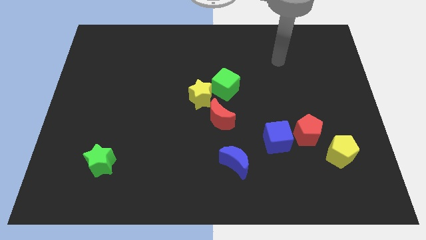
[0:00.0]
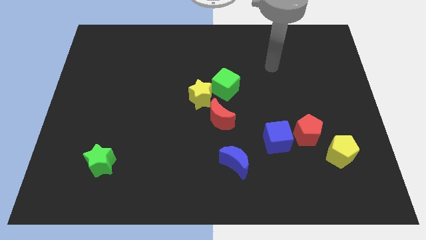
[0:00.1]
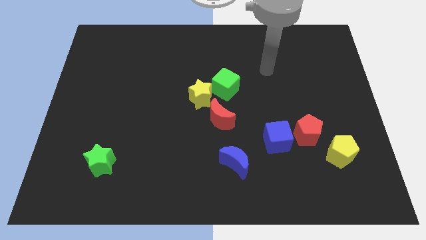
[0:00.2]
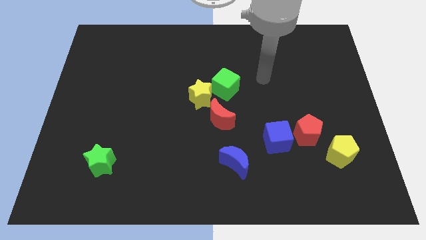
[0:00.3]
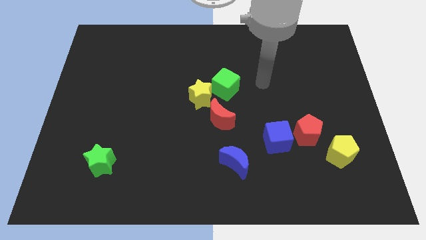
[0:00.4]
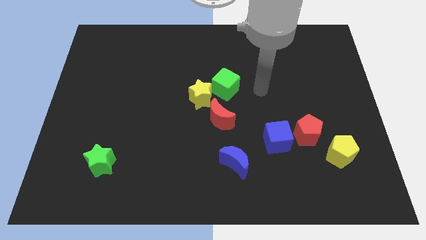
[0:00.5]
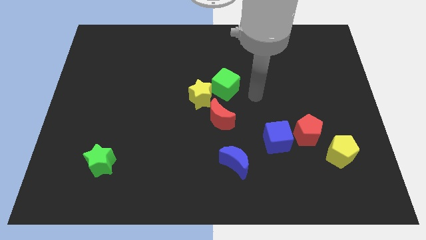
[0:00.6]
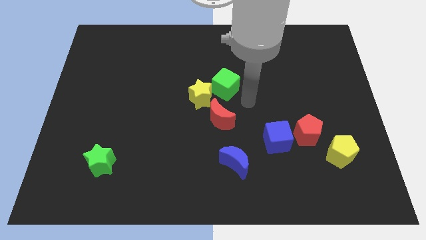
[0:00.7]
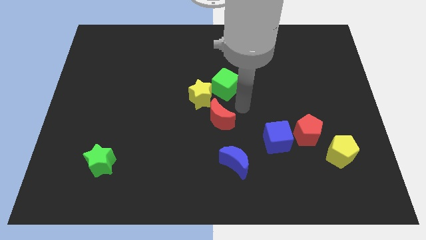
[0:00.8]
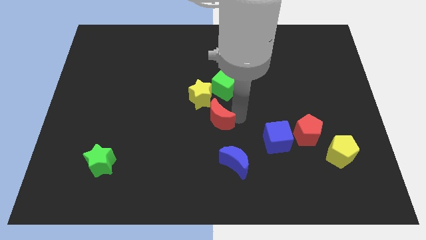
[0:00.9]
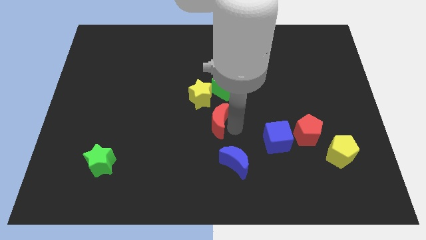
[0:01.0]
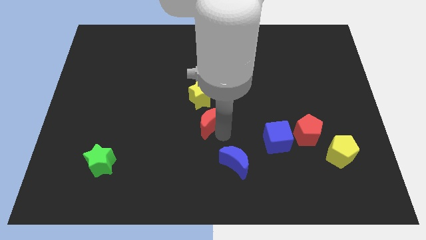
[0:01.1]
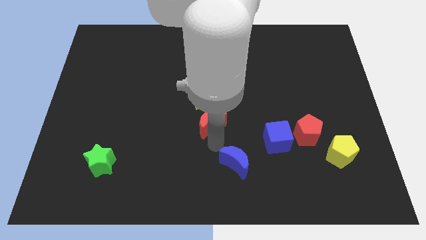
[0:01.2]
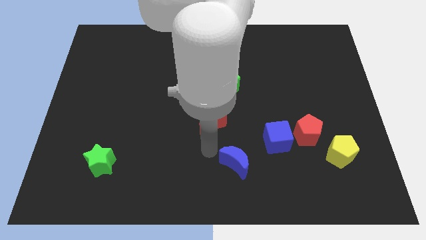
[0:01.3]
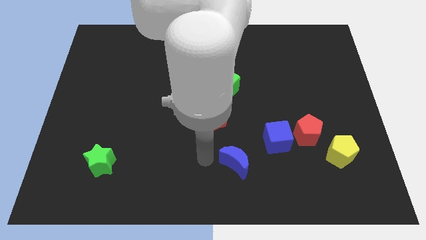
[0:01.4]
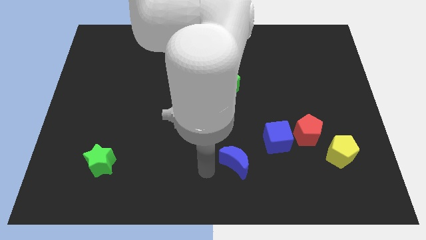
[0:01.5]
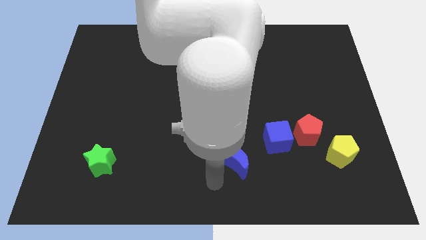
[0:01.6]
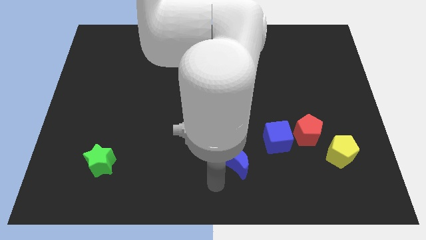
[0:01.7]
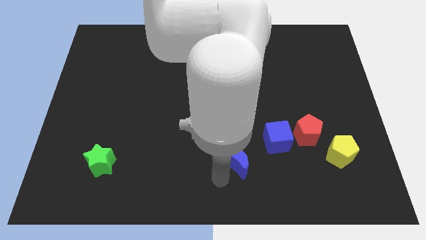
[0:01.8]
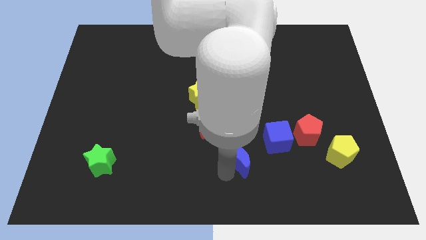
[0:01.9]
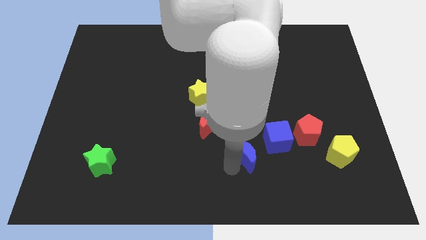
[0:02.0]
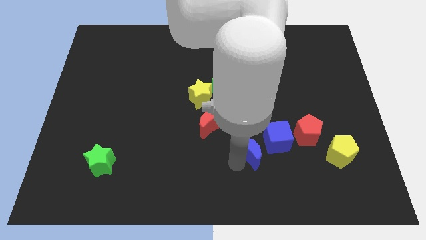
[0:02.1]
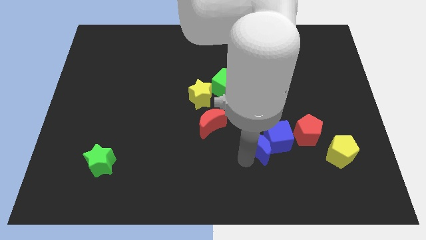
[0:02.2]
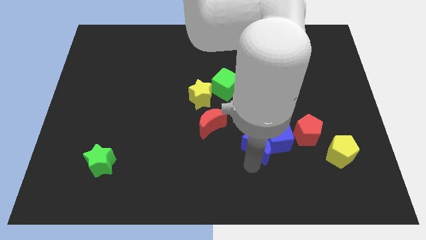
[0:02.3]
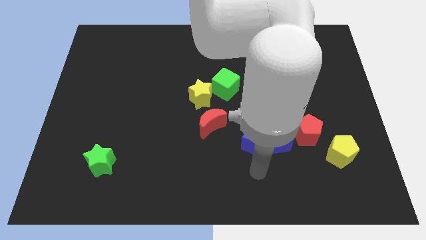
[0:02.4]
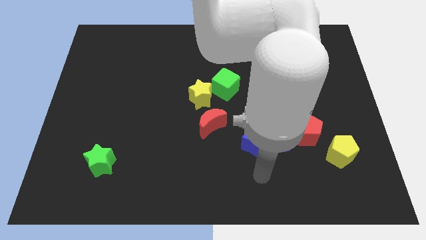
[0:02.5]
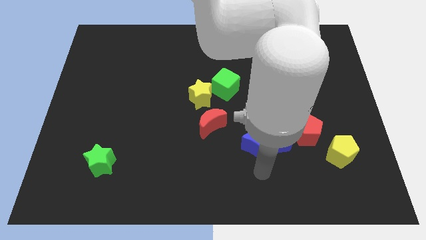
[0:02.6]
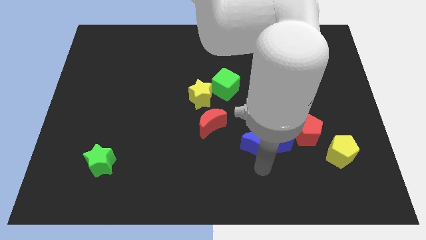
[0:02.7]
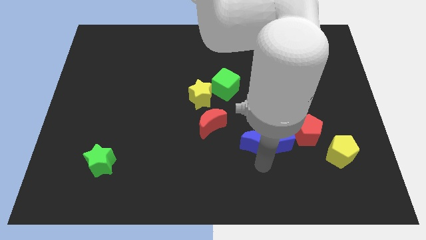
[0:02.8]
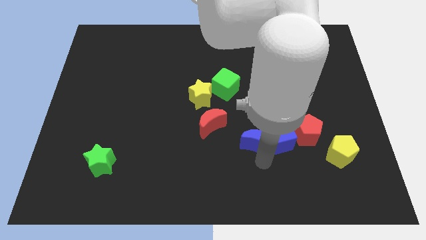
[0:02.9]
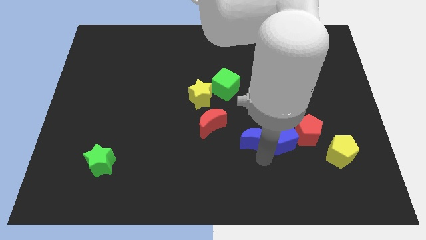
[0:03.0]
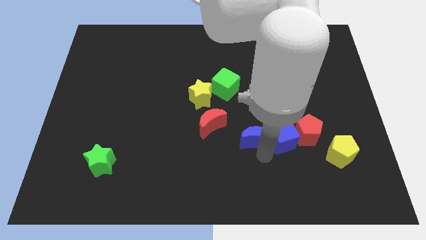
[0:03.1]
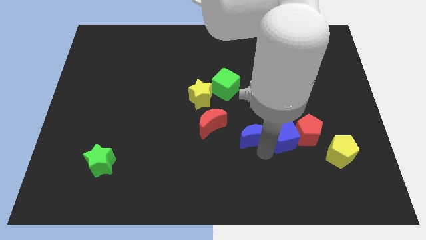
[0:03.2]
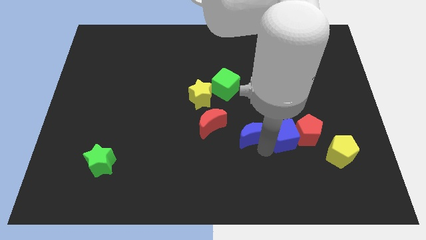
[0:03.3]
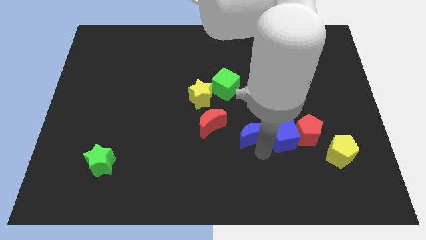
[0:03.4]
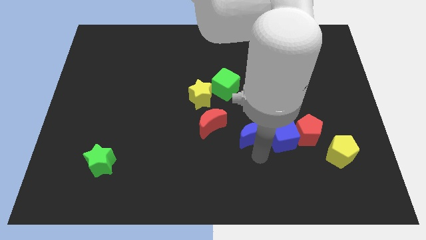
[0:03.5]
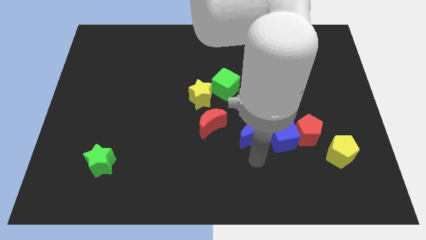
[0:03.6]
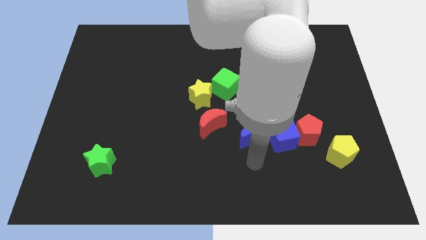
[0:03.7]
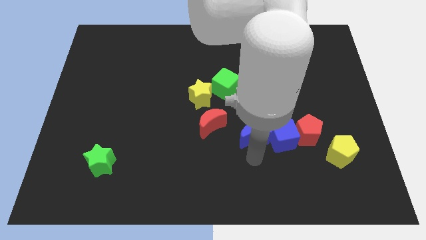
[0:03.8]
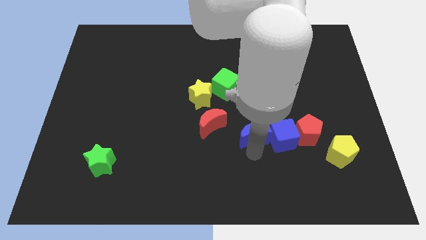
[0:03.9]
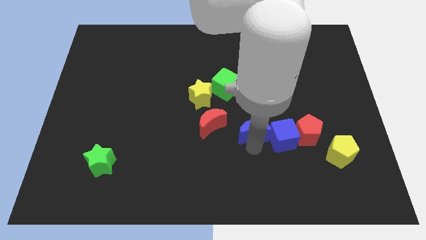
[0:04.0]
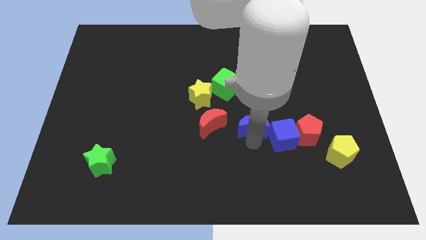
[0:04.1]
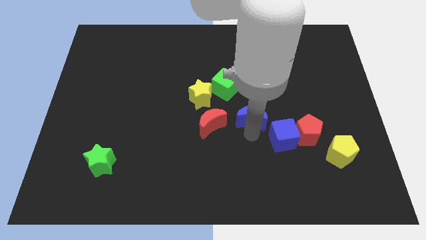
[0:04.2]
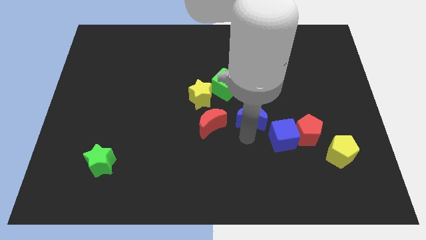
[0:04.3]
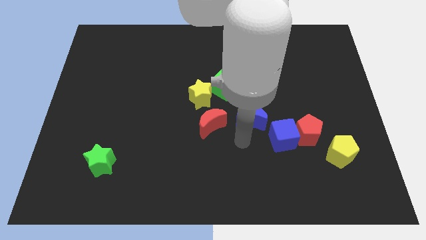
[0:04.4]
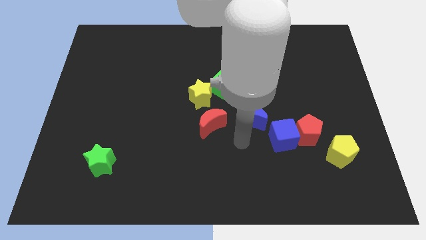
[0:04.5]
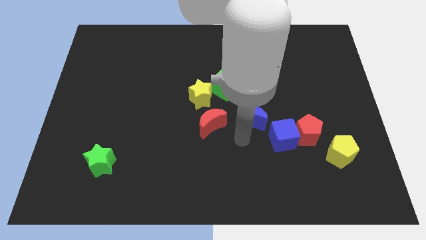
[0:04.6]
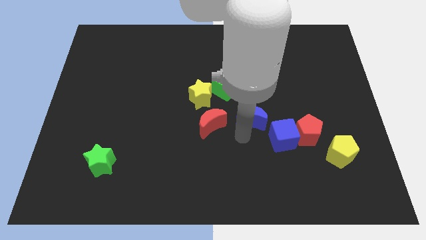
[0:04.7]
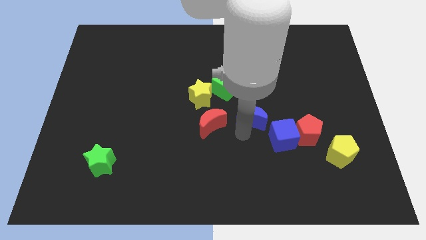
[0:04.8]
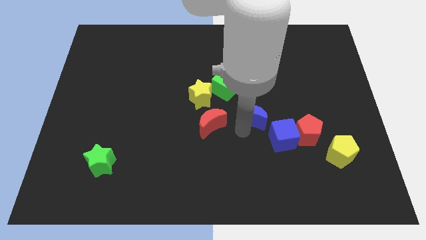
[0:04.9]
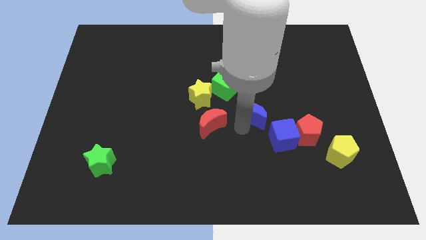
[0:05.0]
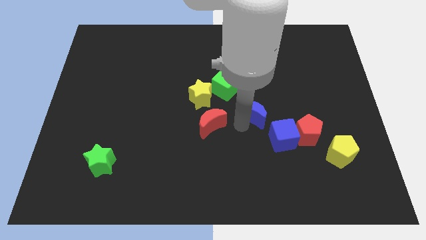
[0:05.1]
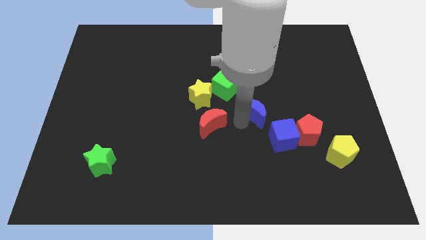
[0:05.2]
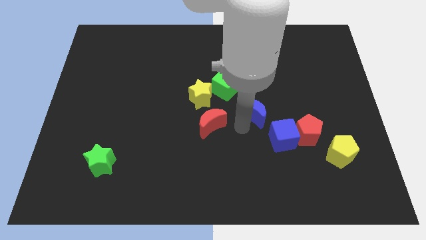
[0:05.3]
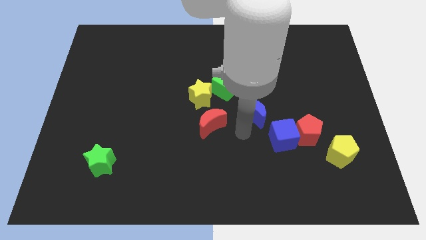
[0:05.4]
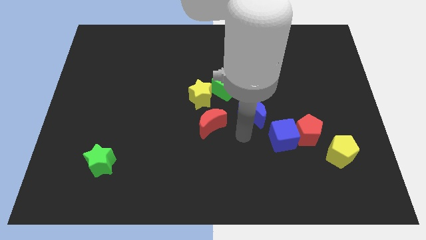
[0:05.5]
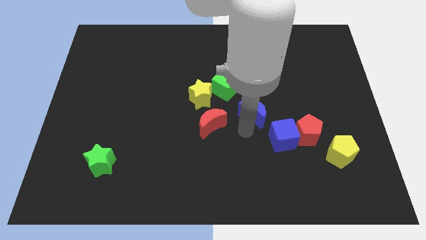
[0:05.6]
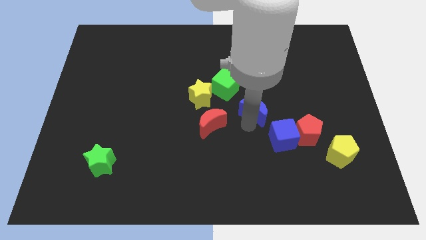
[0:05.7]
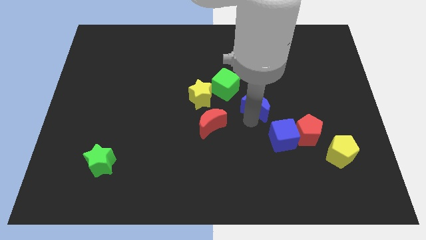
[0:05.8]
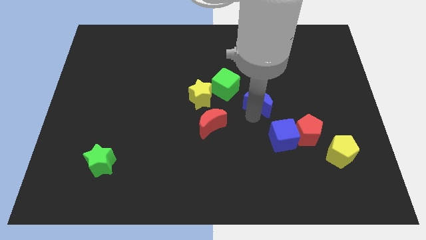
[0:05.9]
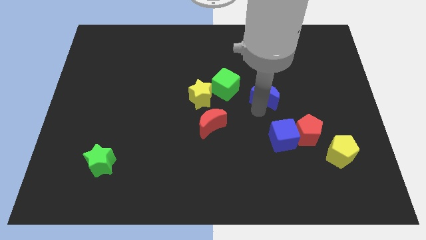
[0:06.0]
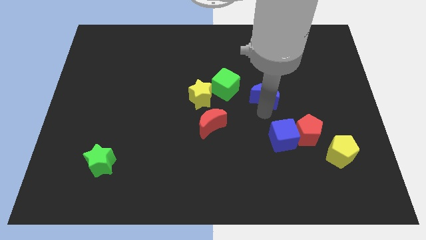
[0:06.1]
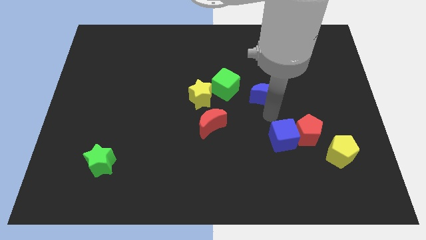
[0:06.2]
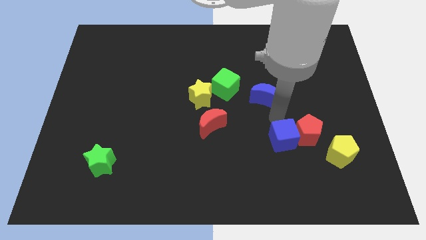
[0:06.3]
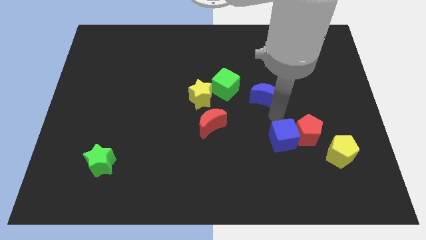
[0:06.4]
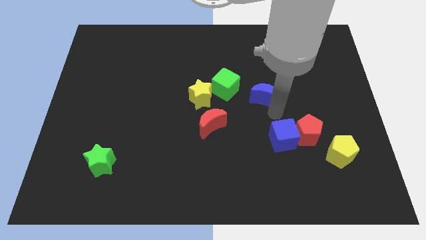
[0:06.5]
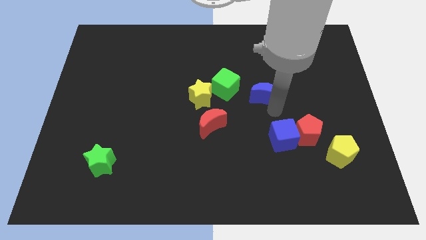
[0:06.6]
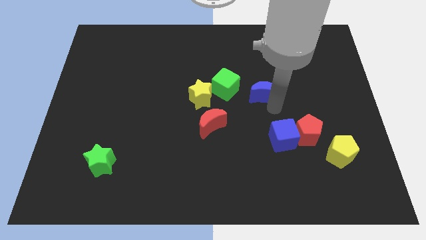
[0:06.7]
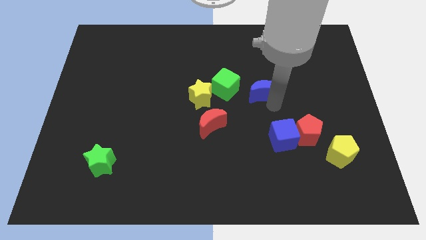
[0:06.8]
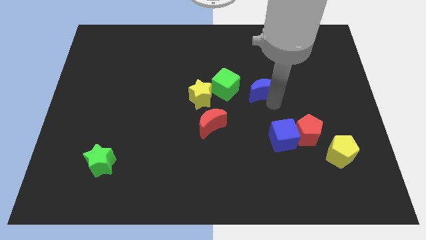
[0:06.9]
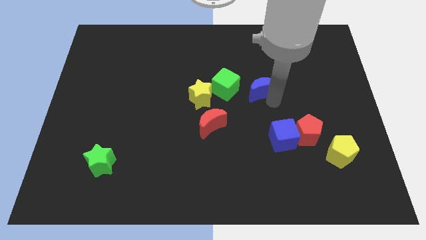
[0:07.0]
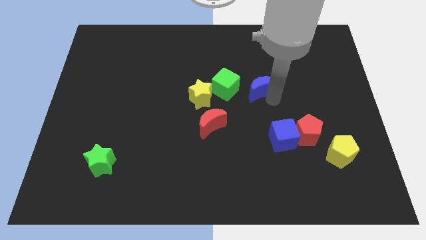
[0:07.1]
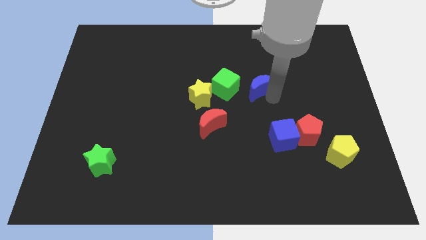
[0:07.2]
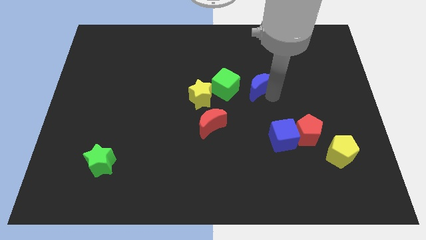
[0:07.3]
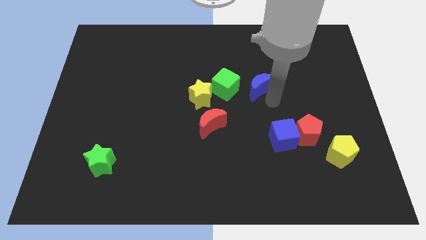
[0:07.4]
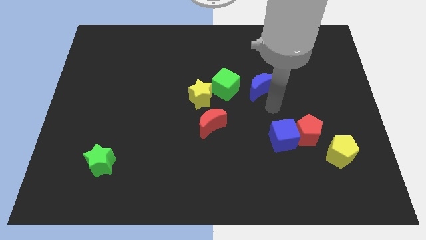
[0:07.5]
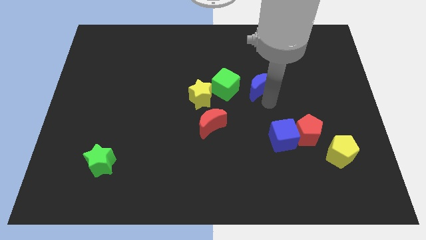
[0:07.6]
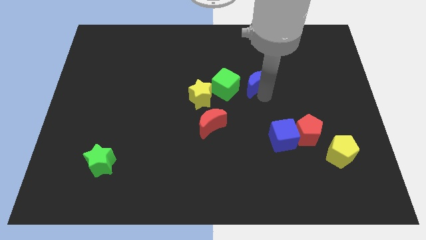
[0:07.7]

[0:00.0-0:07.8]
move the blue moon up

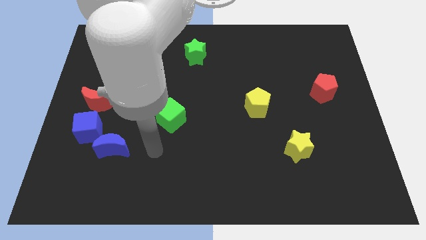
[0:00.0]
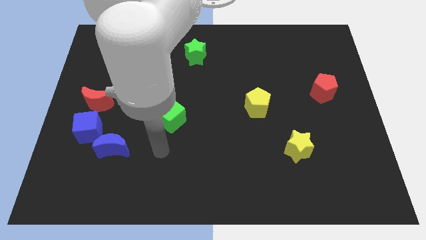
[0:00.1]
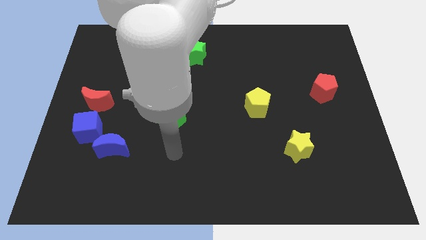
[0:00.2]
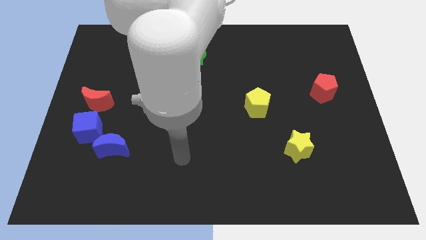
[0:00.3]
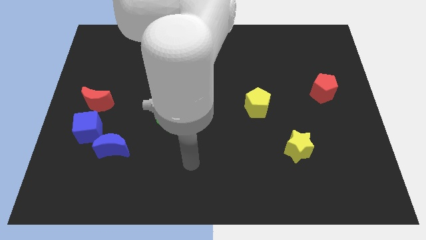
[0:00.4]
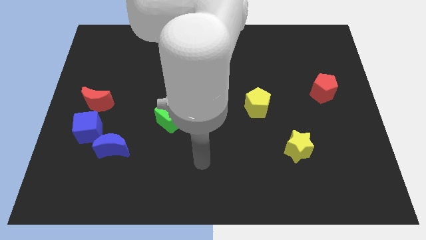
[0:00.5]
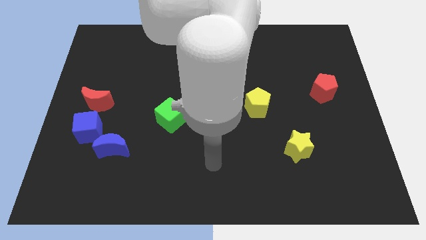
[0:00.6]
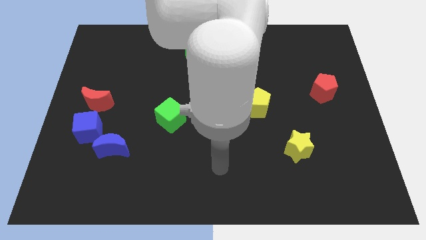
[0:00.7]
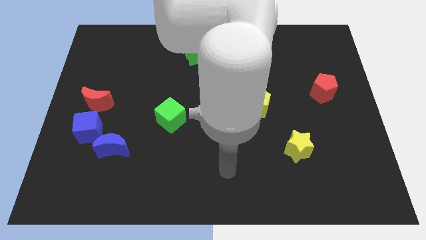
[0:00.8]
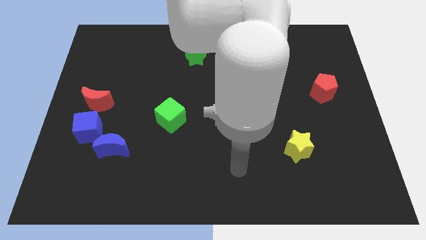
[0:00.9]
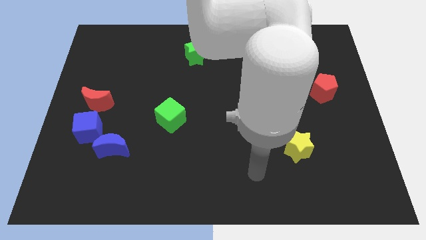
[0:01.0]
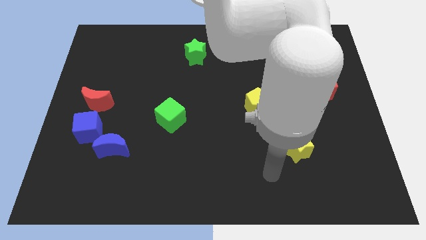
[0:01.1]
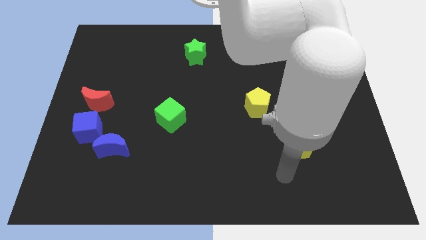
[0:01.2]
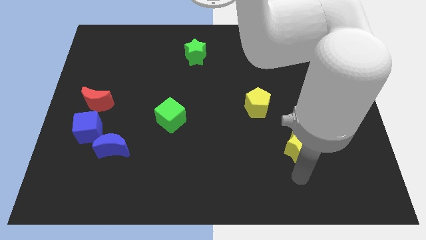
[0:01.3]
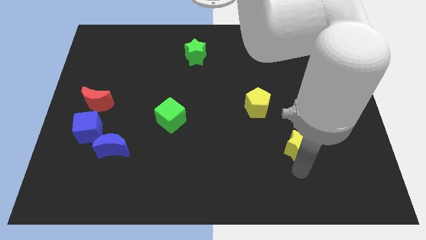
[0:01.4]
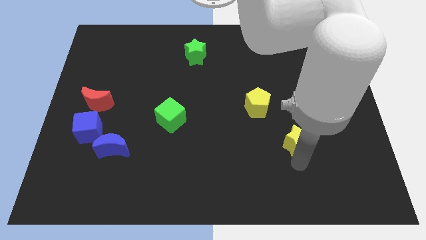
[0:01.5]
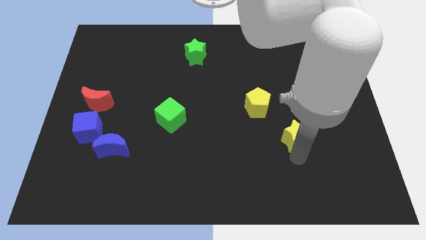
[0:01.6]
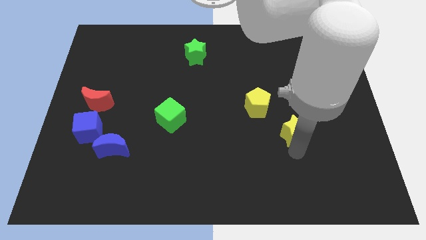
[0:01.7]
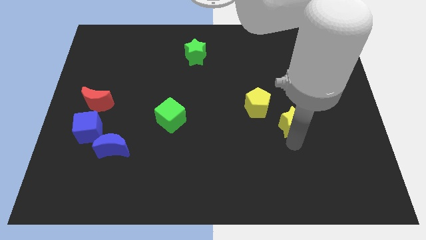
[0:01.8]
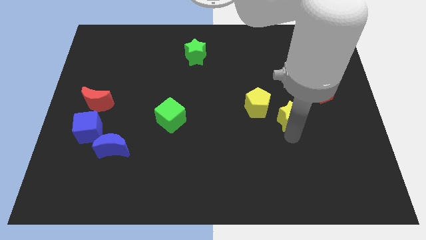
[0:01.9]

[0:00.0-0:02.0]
slightly move the yellow star upwards
